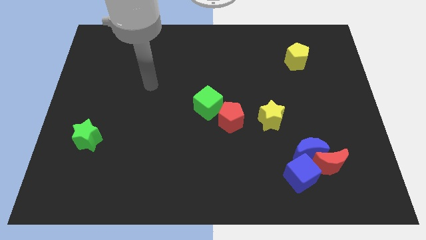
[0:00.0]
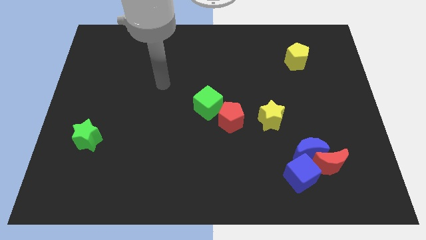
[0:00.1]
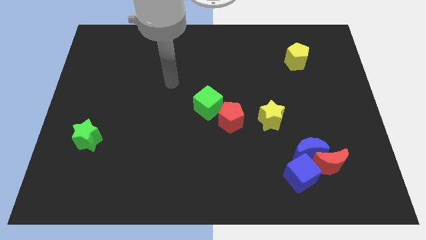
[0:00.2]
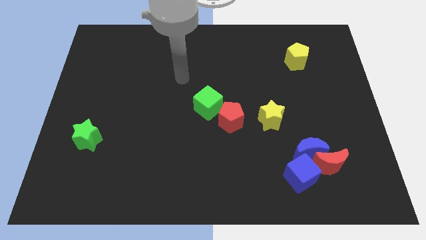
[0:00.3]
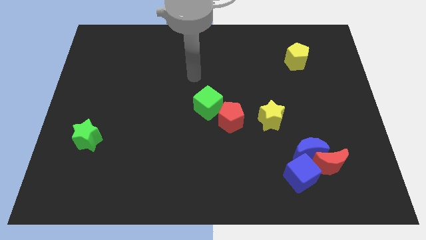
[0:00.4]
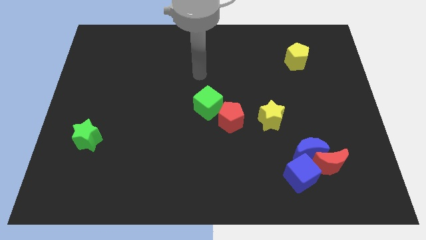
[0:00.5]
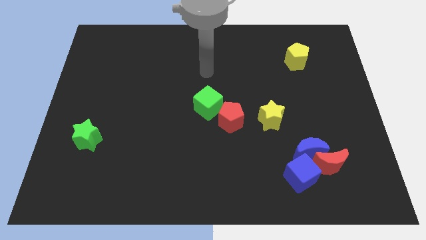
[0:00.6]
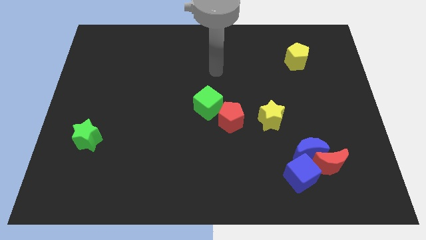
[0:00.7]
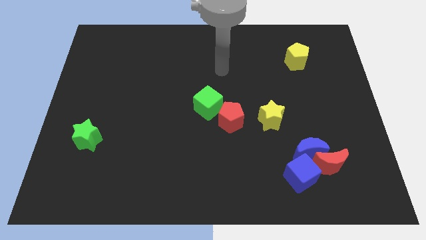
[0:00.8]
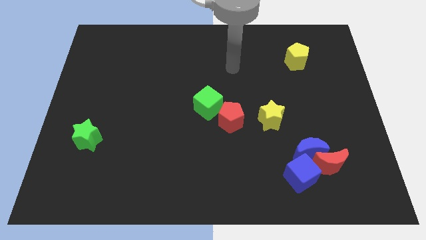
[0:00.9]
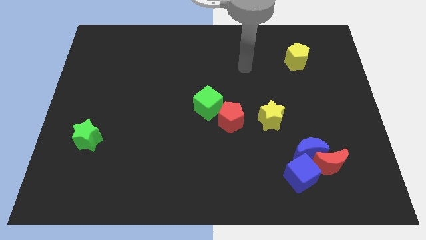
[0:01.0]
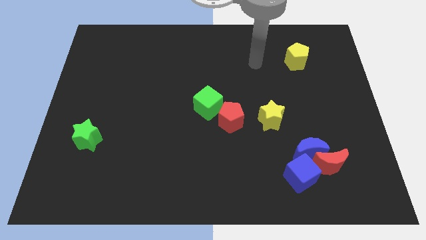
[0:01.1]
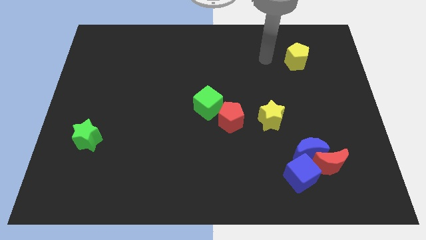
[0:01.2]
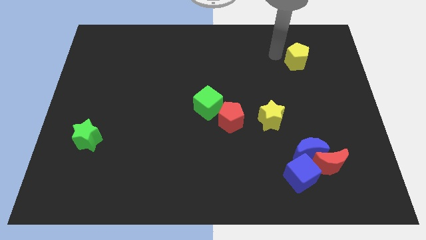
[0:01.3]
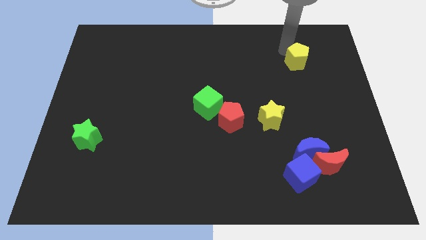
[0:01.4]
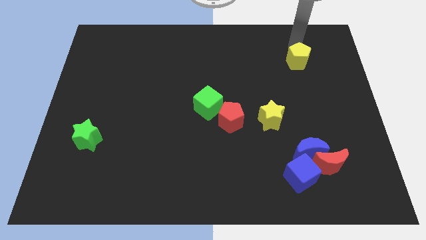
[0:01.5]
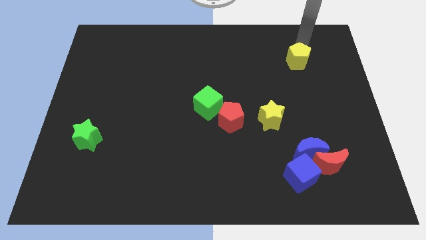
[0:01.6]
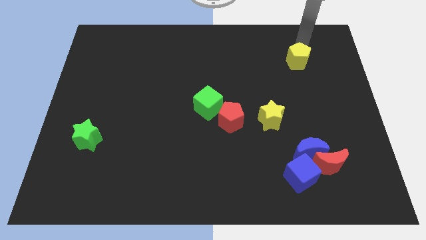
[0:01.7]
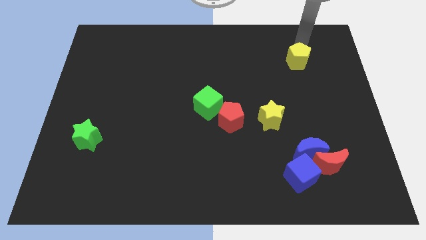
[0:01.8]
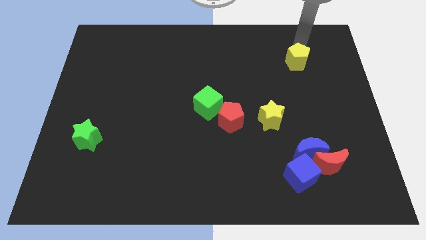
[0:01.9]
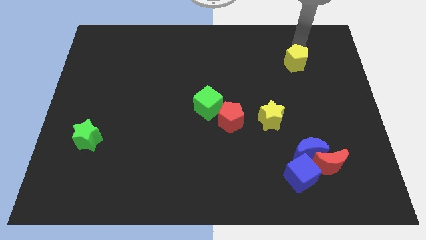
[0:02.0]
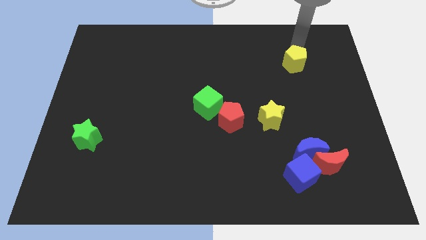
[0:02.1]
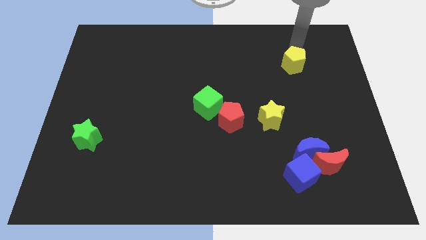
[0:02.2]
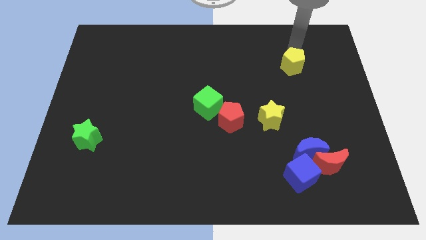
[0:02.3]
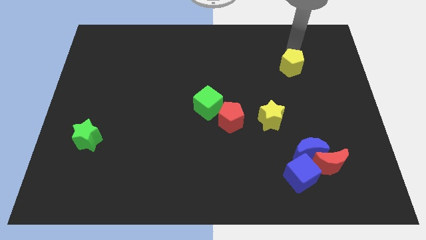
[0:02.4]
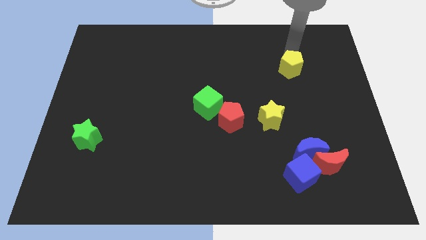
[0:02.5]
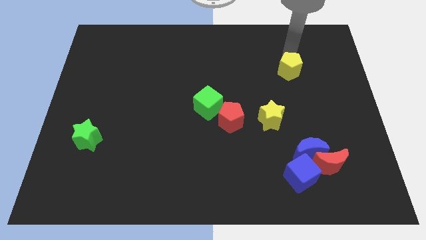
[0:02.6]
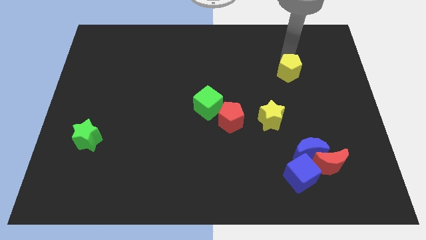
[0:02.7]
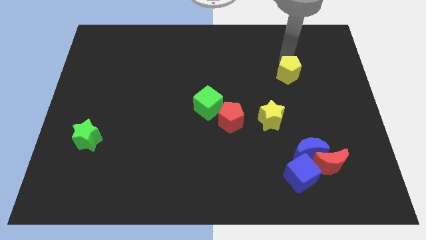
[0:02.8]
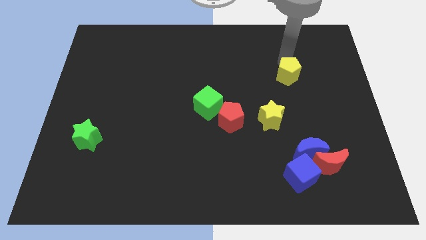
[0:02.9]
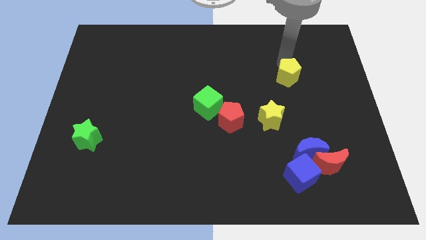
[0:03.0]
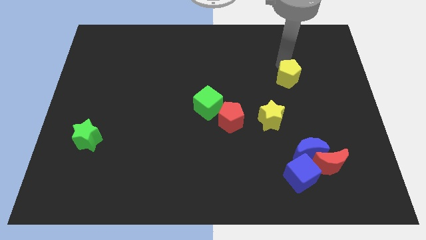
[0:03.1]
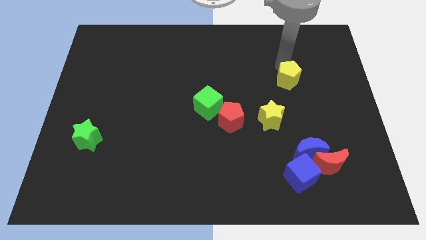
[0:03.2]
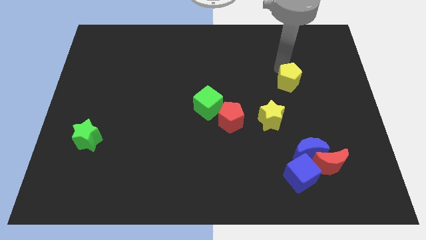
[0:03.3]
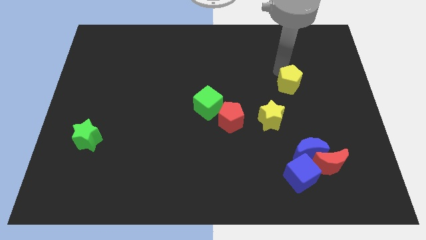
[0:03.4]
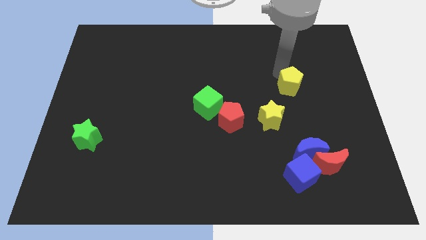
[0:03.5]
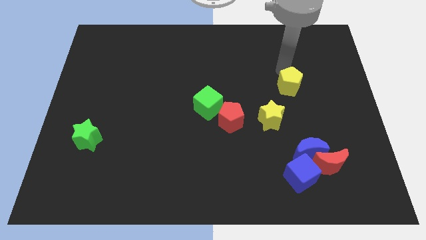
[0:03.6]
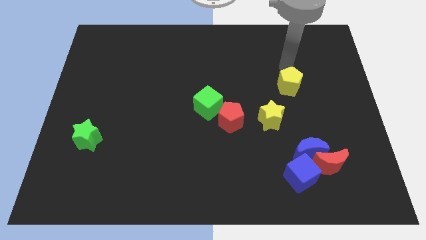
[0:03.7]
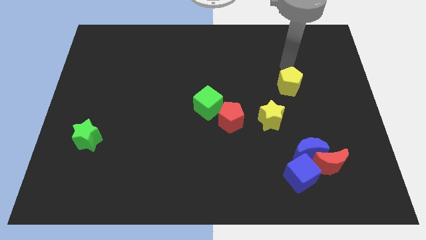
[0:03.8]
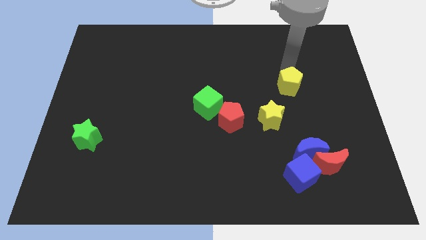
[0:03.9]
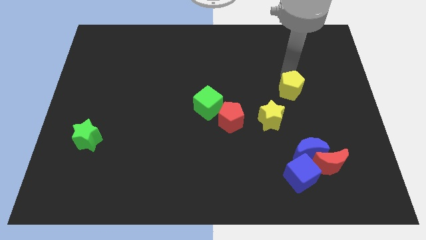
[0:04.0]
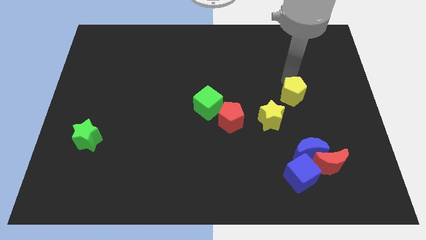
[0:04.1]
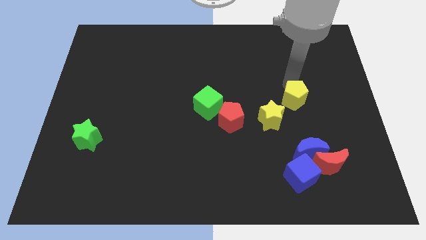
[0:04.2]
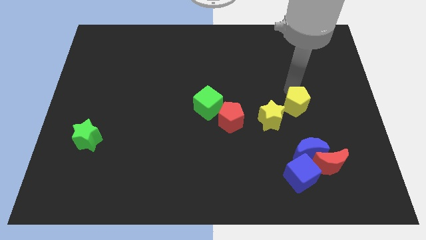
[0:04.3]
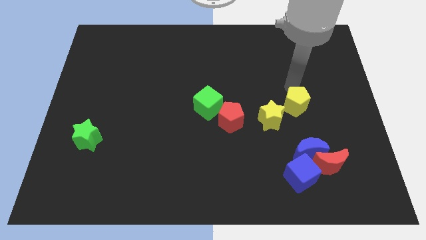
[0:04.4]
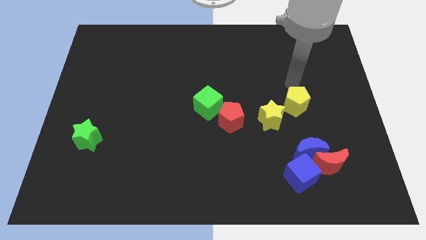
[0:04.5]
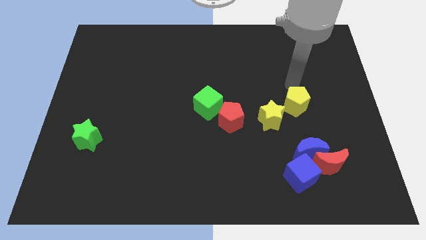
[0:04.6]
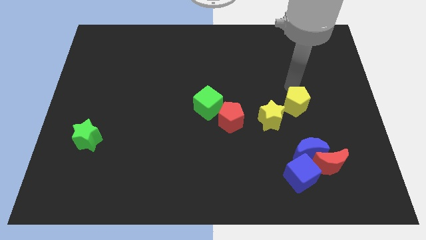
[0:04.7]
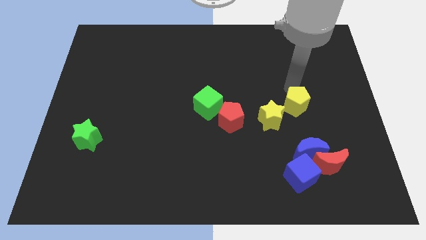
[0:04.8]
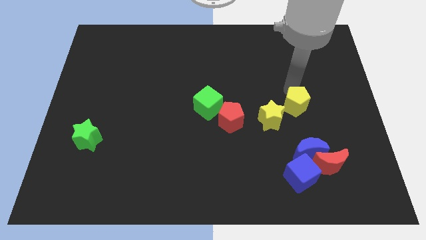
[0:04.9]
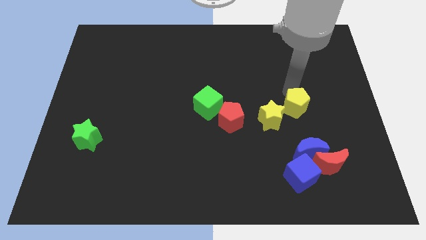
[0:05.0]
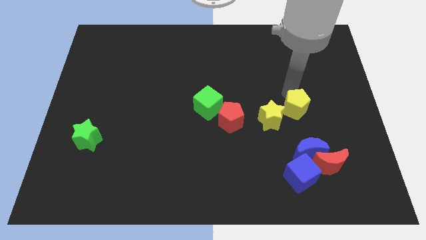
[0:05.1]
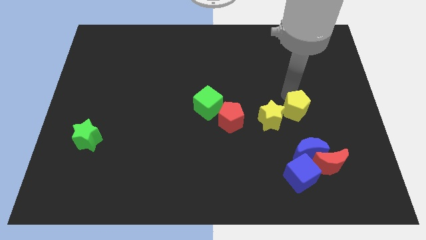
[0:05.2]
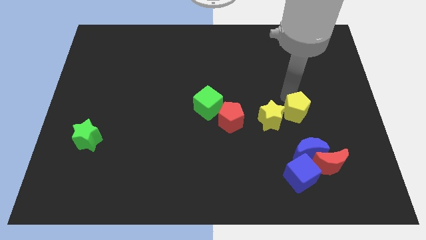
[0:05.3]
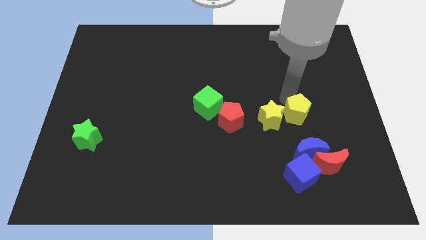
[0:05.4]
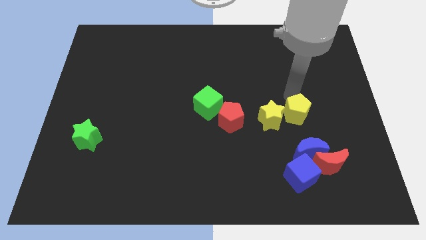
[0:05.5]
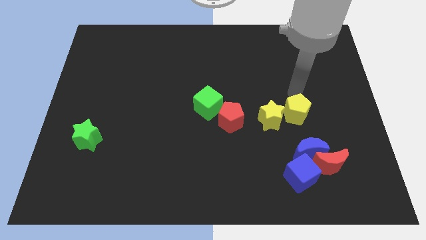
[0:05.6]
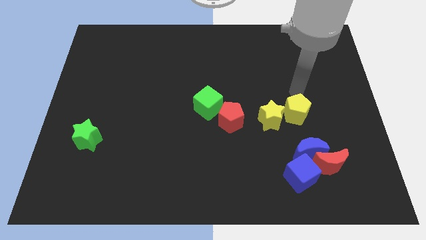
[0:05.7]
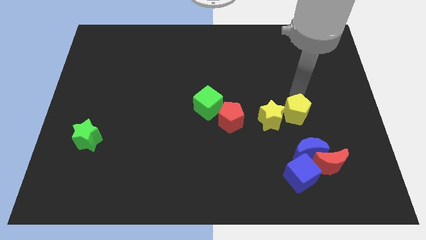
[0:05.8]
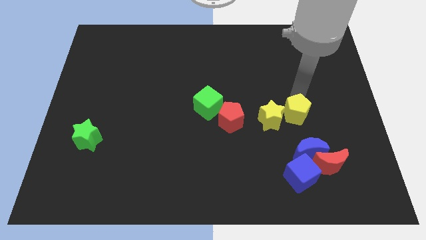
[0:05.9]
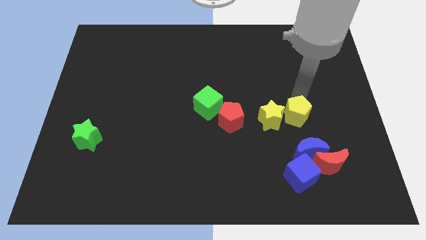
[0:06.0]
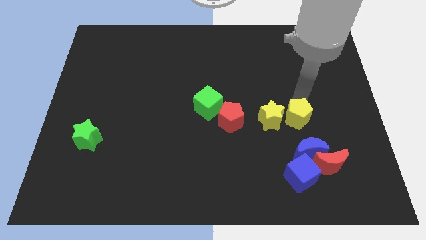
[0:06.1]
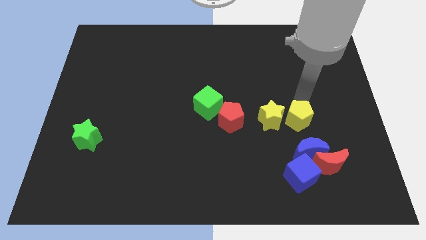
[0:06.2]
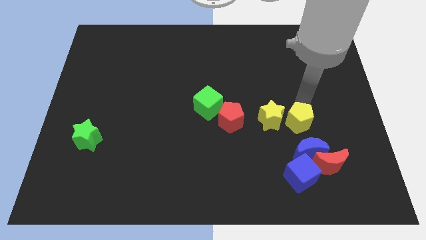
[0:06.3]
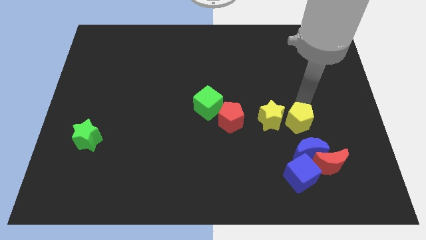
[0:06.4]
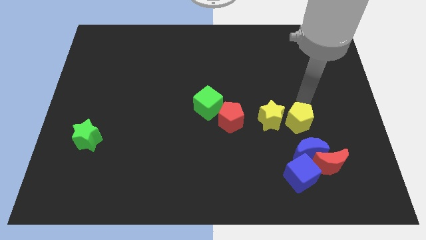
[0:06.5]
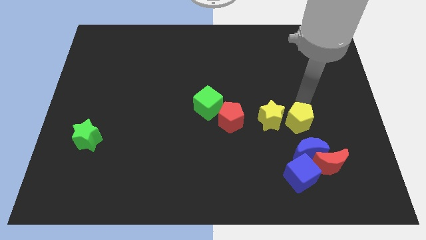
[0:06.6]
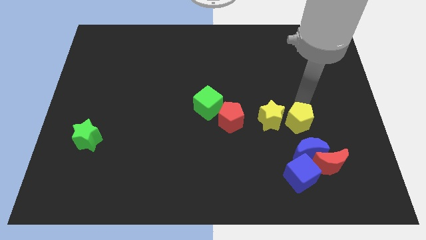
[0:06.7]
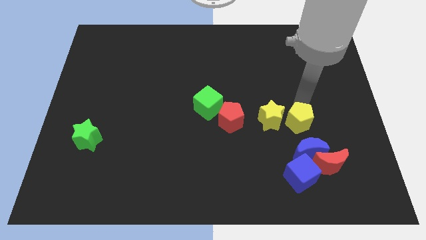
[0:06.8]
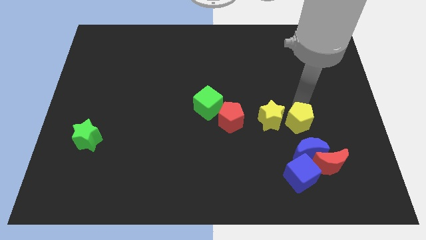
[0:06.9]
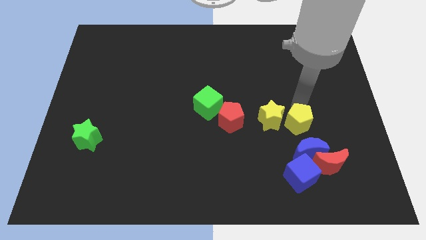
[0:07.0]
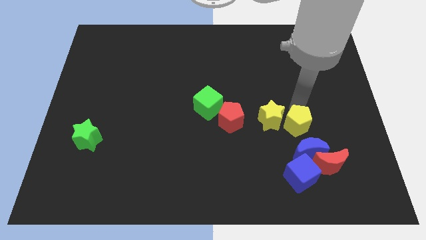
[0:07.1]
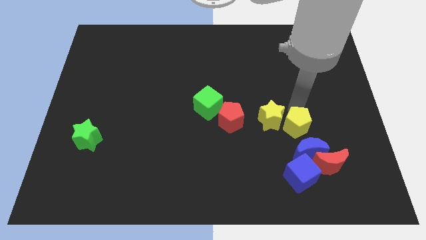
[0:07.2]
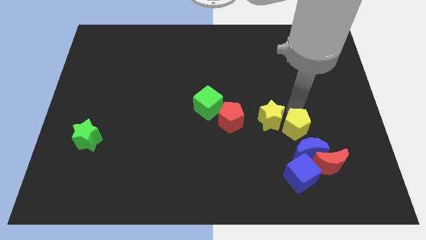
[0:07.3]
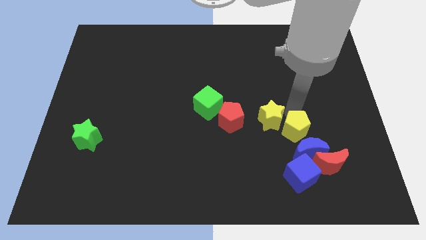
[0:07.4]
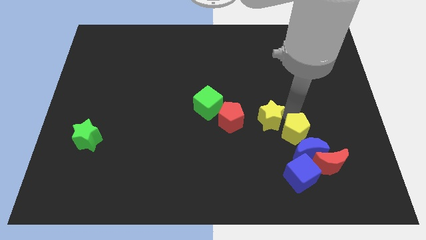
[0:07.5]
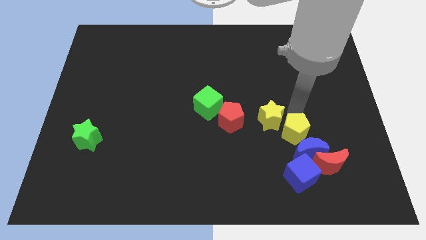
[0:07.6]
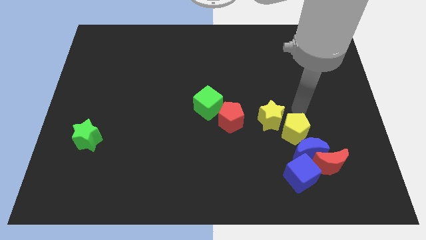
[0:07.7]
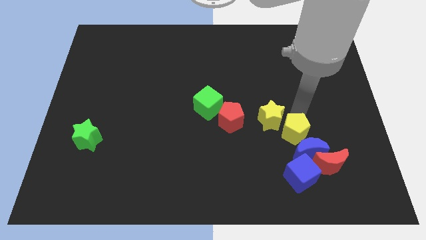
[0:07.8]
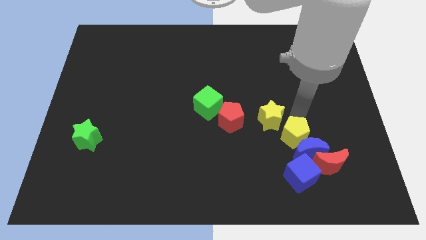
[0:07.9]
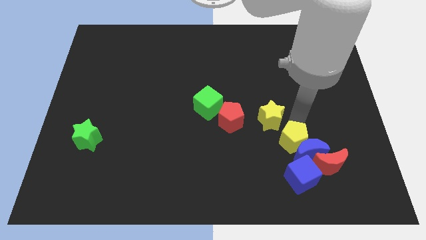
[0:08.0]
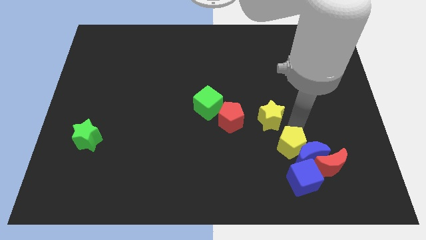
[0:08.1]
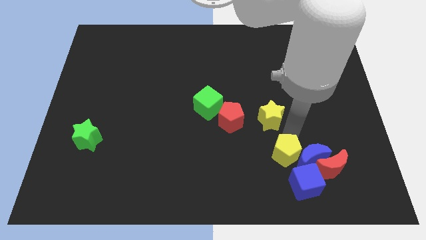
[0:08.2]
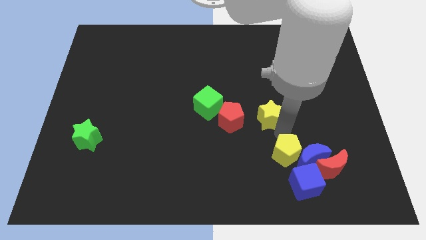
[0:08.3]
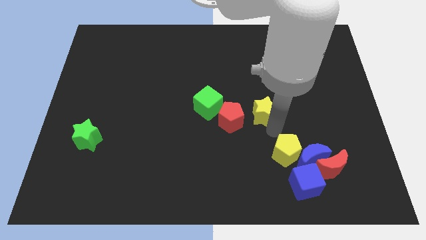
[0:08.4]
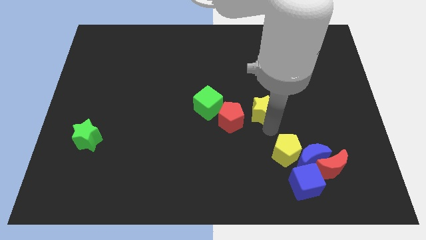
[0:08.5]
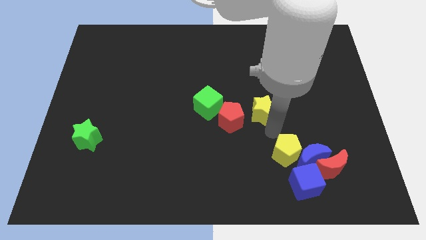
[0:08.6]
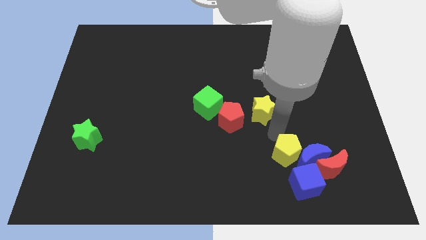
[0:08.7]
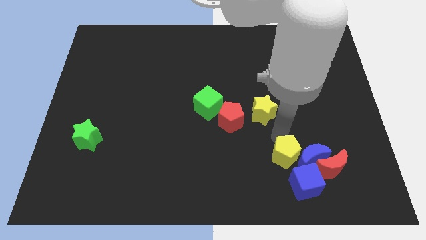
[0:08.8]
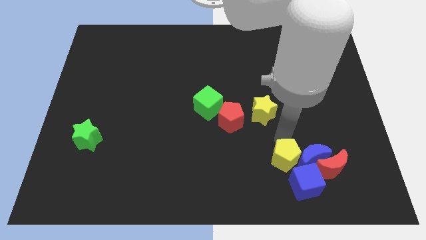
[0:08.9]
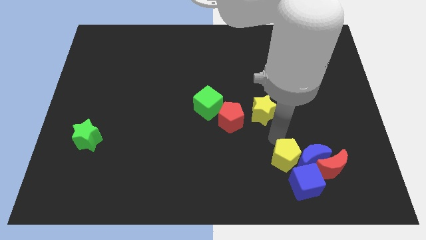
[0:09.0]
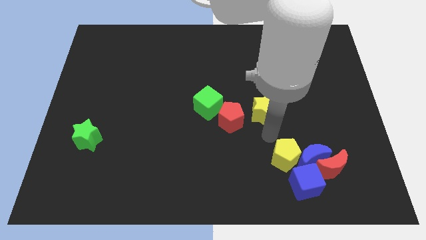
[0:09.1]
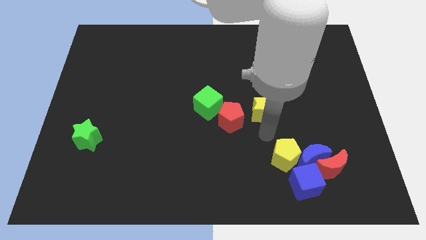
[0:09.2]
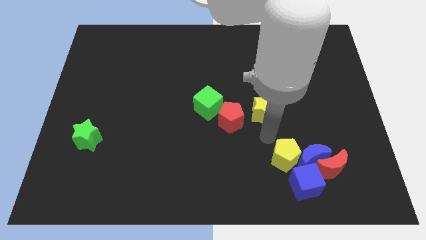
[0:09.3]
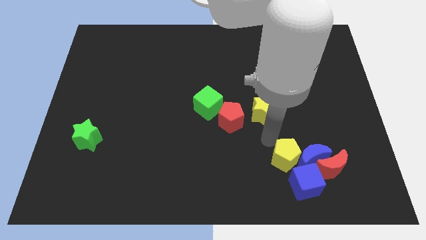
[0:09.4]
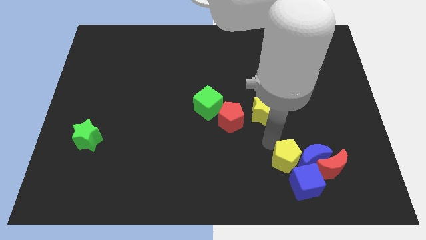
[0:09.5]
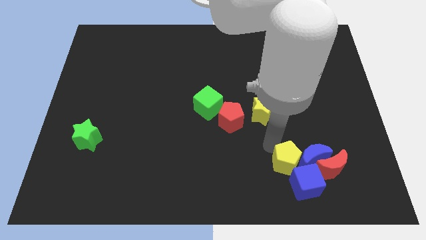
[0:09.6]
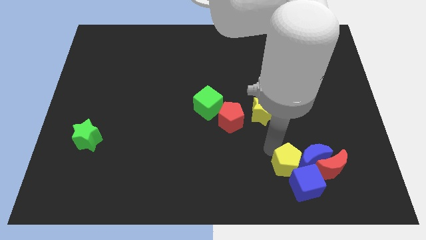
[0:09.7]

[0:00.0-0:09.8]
push the yellow pentagon next to the blue cube
